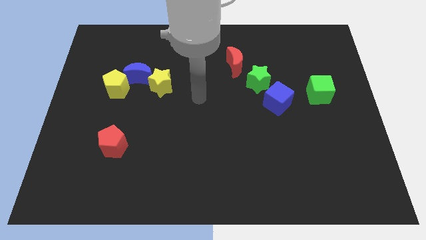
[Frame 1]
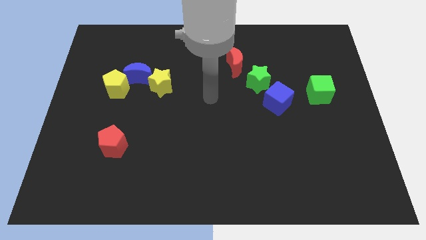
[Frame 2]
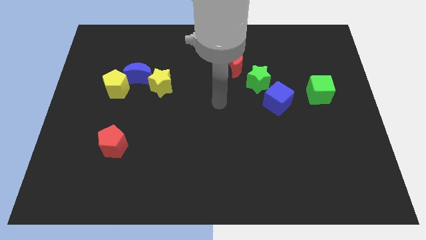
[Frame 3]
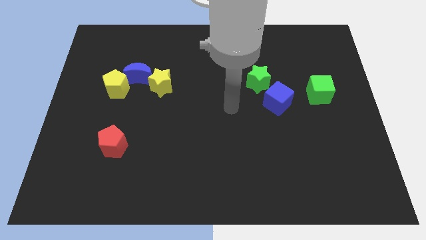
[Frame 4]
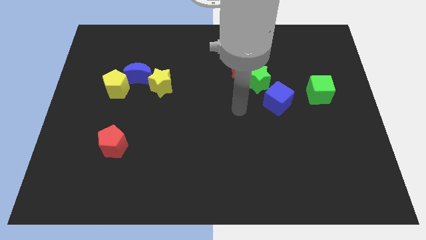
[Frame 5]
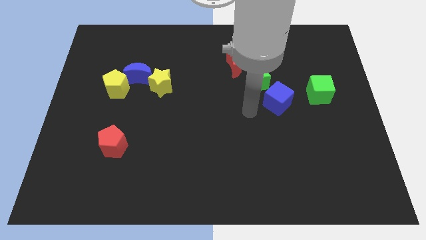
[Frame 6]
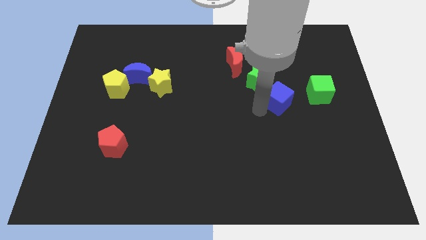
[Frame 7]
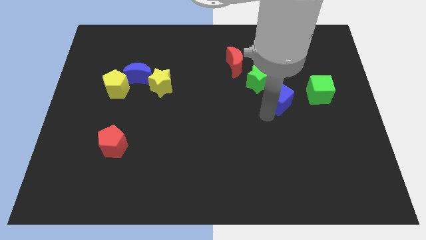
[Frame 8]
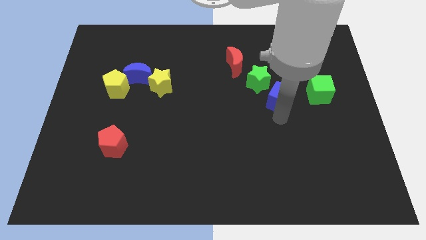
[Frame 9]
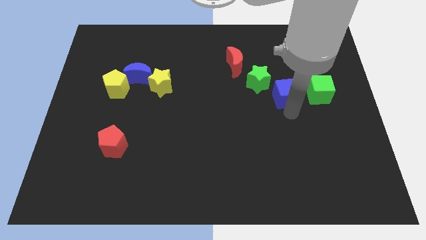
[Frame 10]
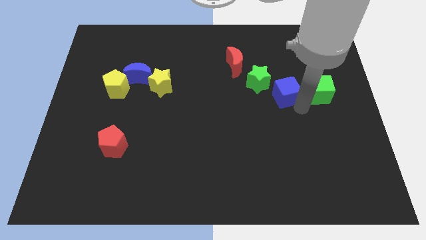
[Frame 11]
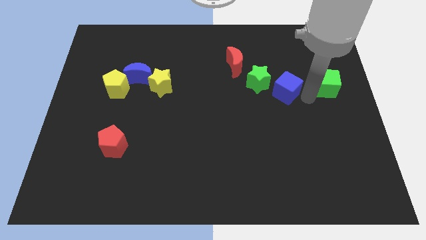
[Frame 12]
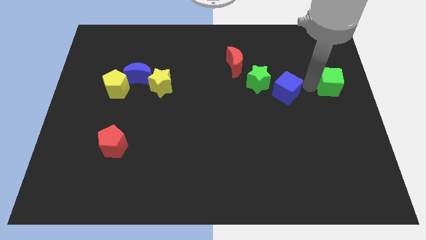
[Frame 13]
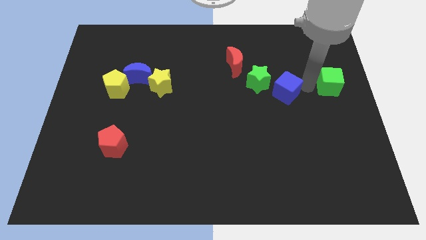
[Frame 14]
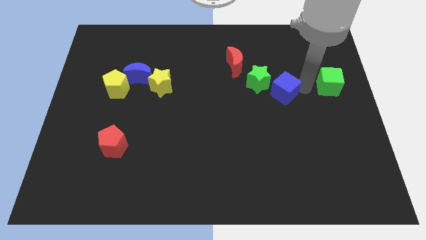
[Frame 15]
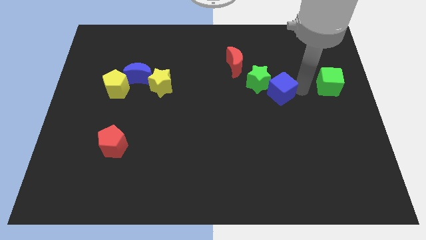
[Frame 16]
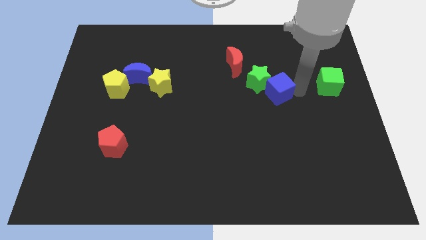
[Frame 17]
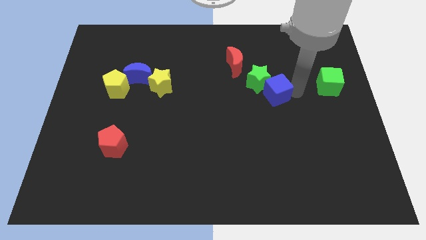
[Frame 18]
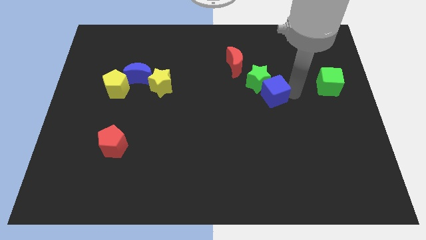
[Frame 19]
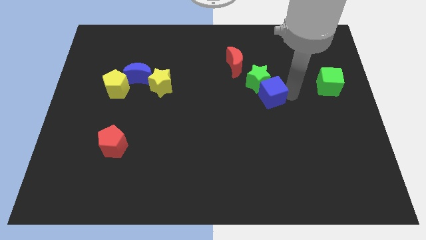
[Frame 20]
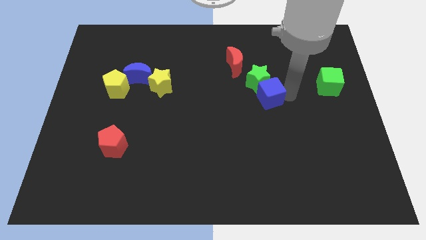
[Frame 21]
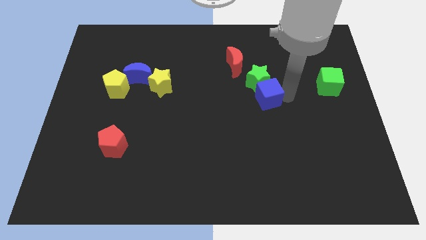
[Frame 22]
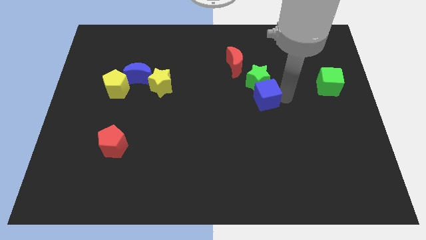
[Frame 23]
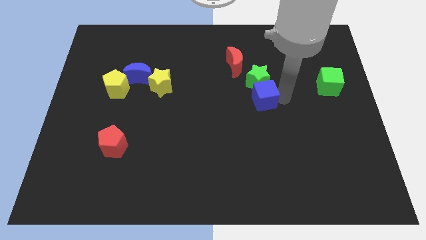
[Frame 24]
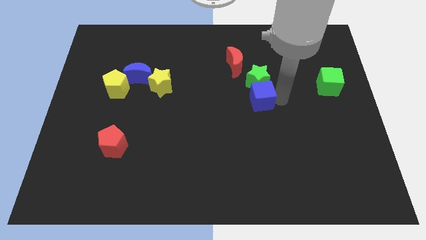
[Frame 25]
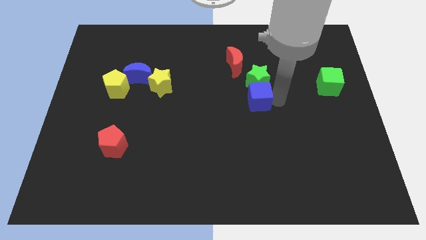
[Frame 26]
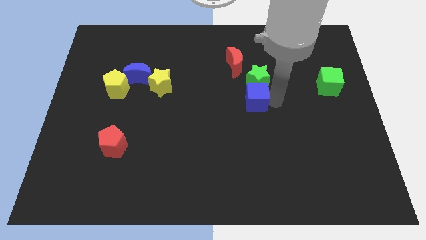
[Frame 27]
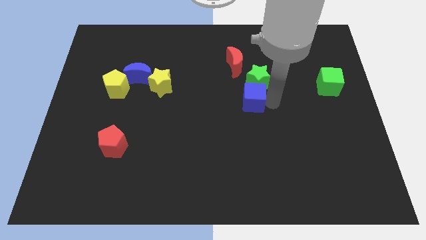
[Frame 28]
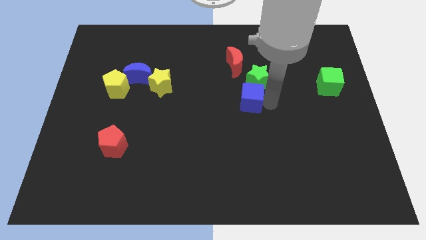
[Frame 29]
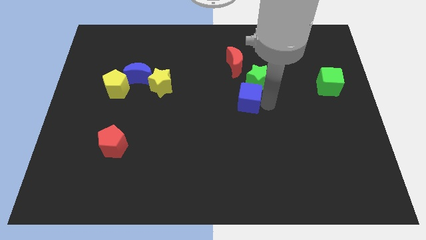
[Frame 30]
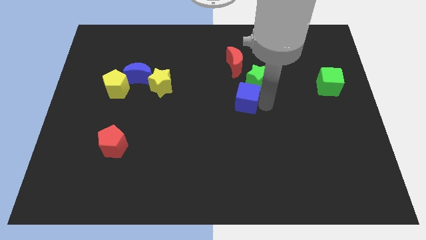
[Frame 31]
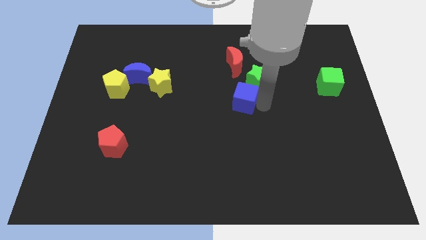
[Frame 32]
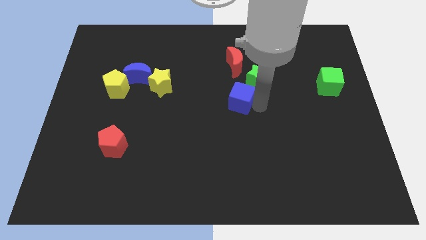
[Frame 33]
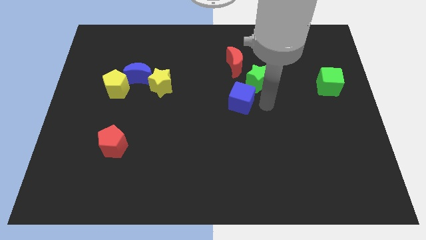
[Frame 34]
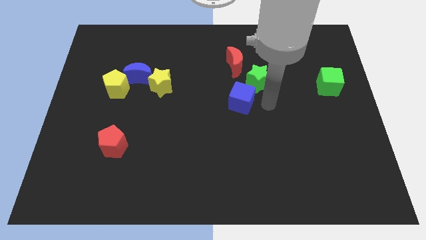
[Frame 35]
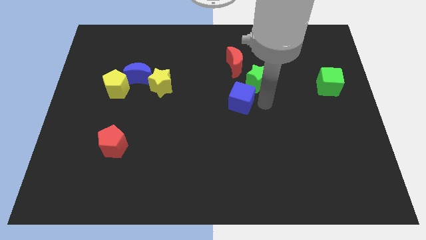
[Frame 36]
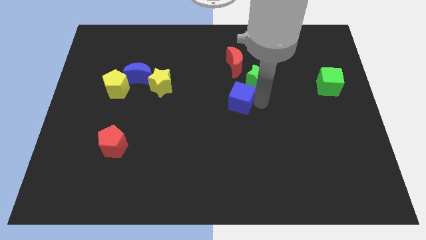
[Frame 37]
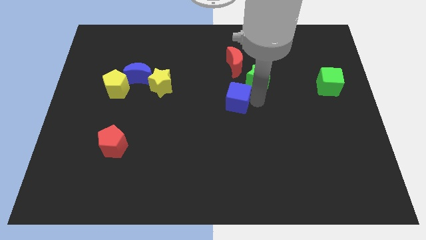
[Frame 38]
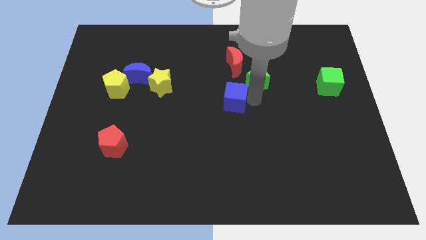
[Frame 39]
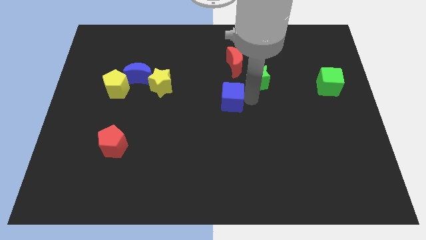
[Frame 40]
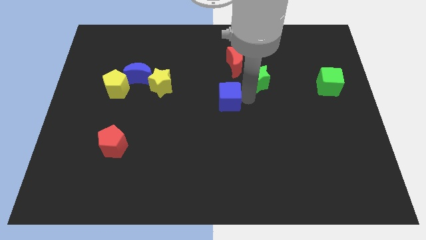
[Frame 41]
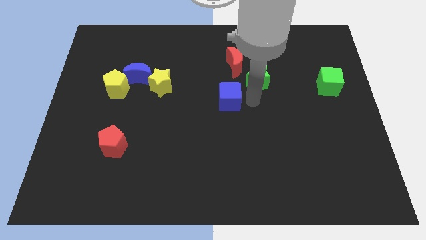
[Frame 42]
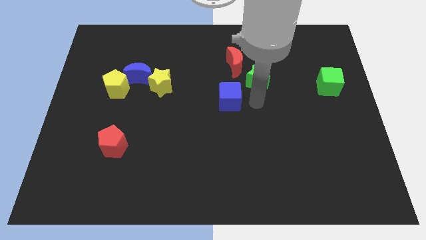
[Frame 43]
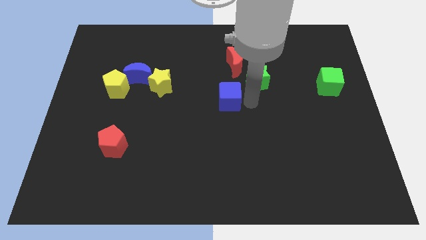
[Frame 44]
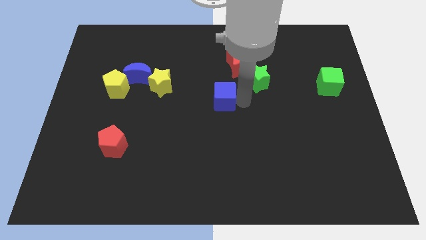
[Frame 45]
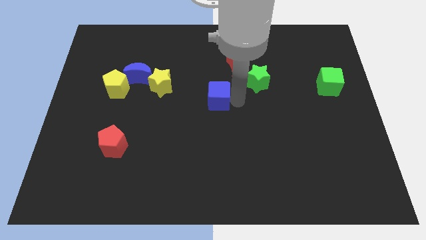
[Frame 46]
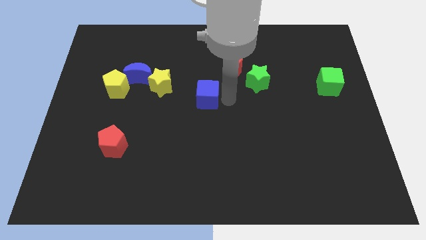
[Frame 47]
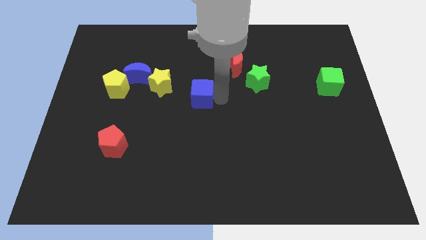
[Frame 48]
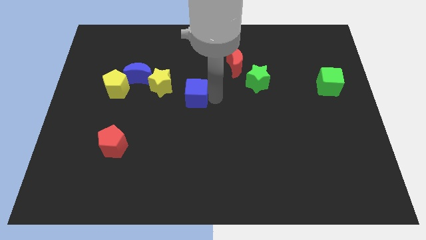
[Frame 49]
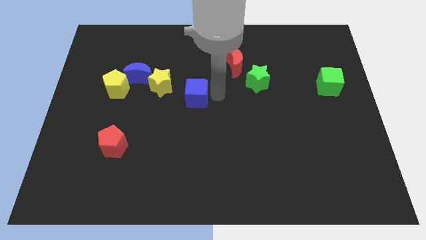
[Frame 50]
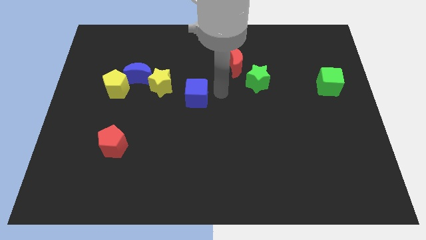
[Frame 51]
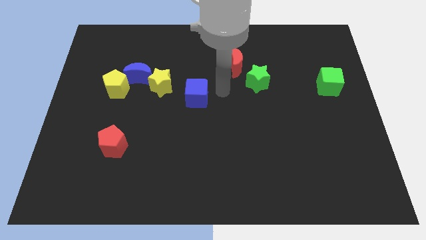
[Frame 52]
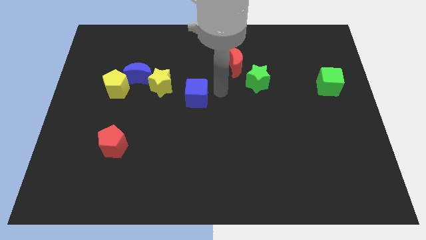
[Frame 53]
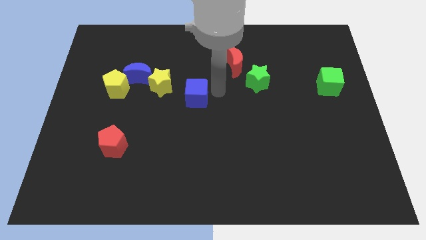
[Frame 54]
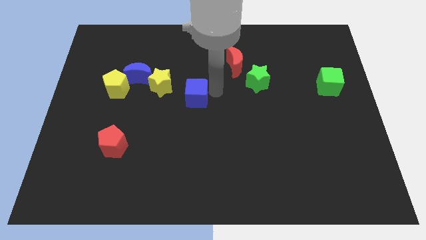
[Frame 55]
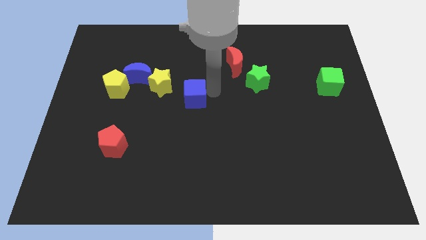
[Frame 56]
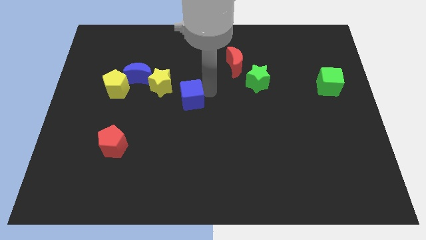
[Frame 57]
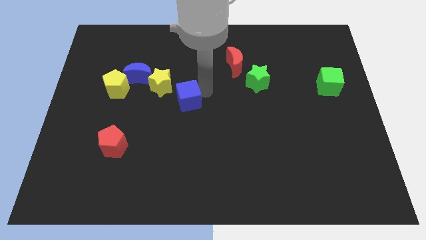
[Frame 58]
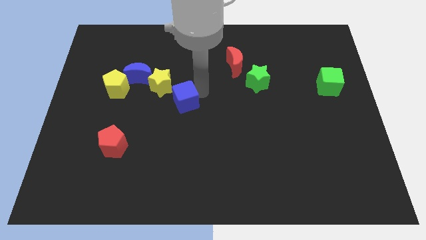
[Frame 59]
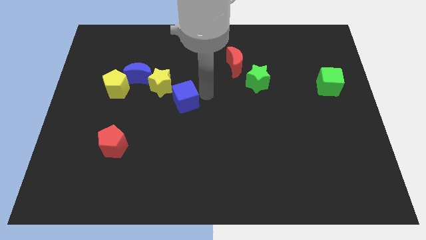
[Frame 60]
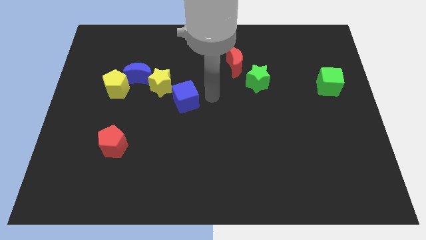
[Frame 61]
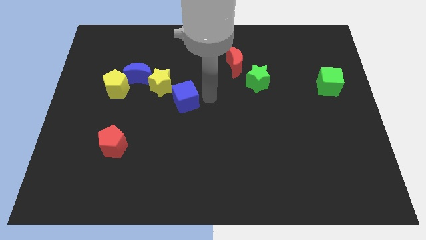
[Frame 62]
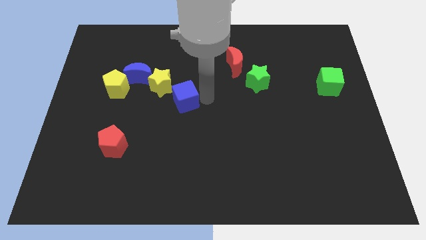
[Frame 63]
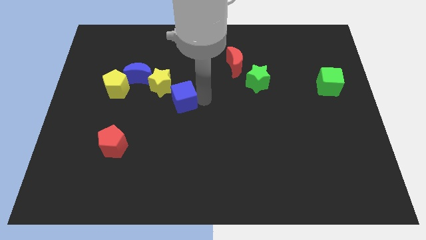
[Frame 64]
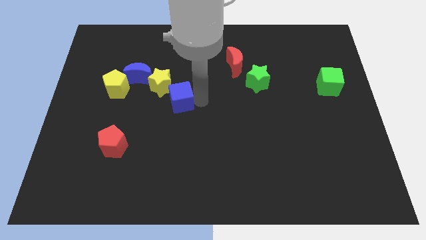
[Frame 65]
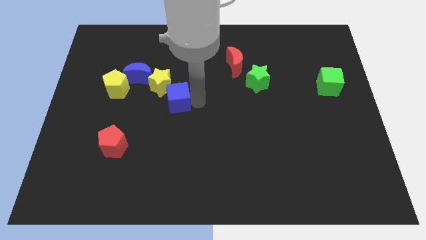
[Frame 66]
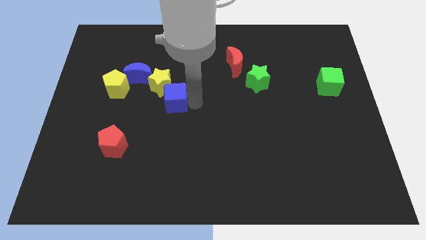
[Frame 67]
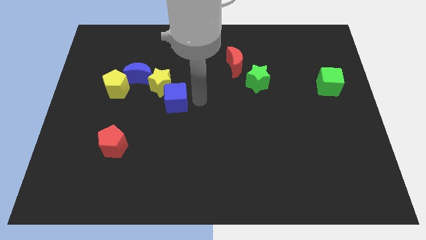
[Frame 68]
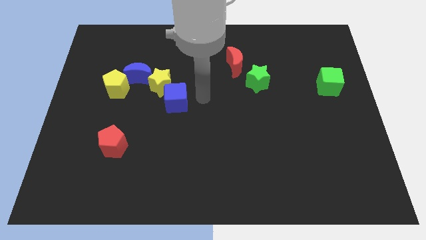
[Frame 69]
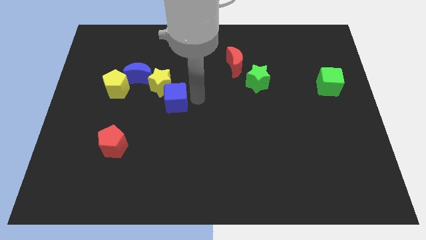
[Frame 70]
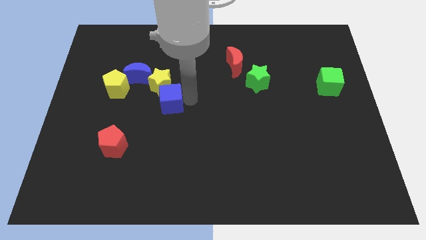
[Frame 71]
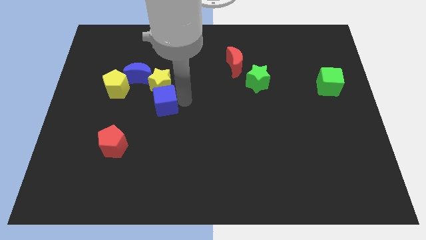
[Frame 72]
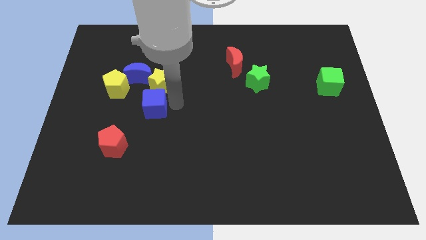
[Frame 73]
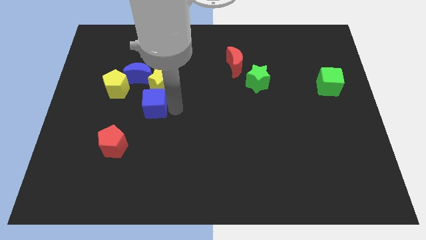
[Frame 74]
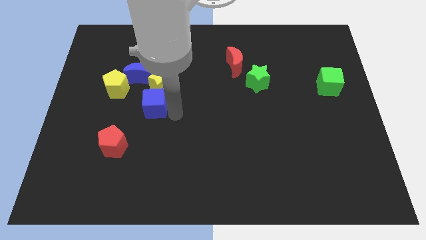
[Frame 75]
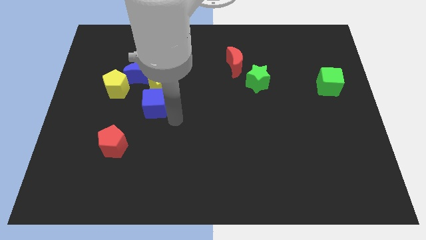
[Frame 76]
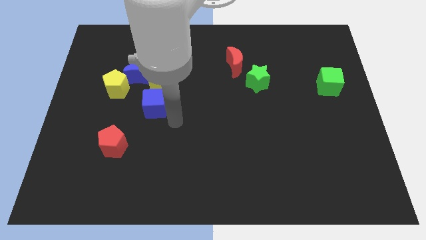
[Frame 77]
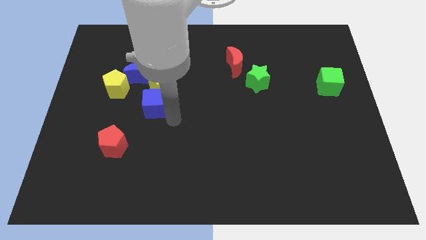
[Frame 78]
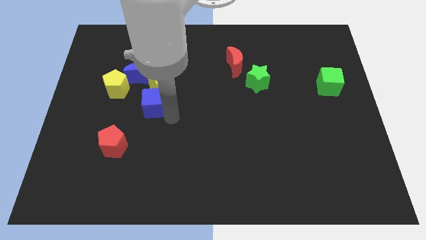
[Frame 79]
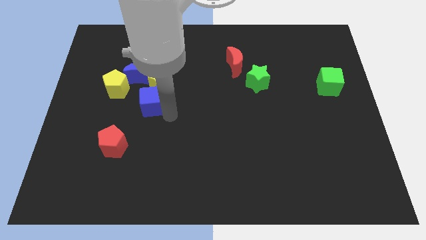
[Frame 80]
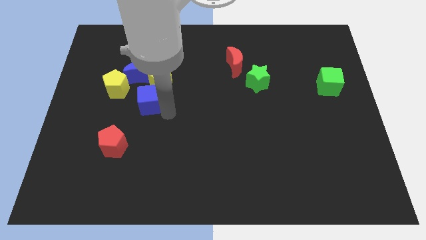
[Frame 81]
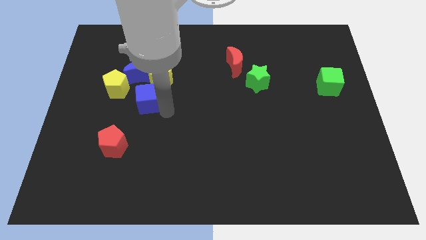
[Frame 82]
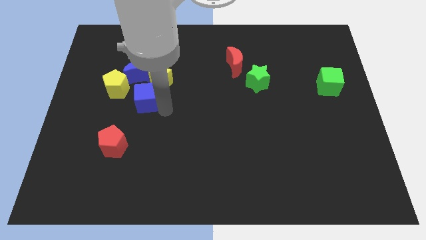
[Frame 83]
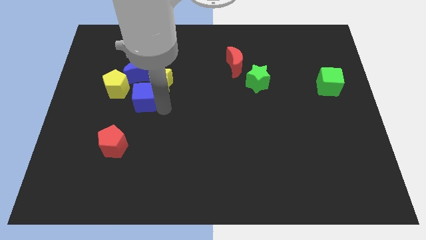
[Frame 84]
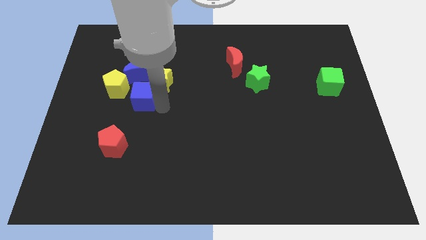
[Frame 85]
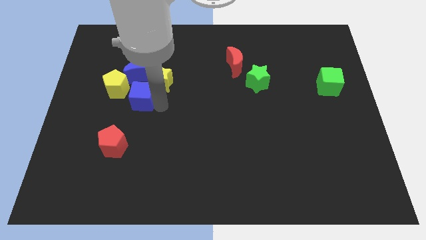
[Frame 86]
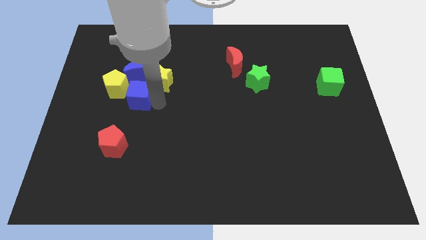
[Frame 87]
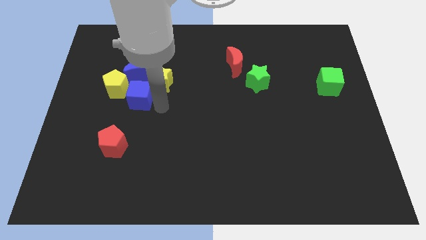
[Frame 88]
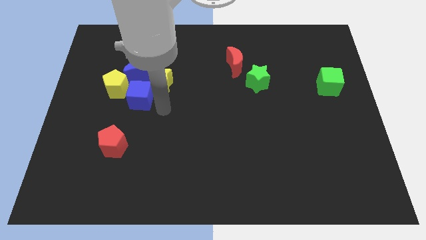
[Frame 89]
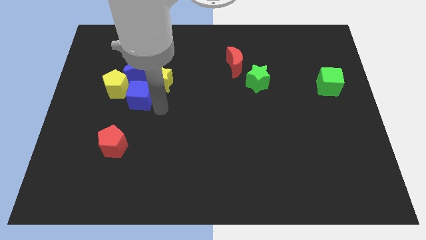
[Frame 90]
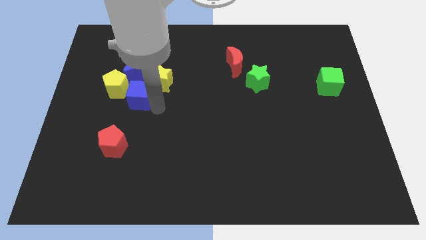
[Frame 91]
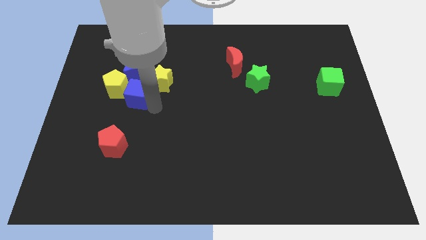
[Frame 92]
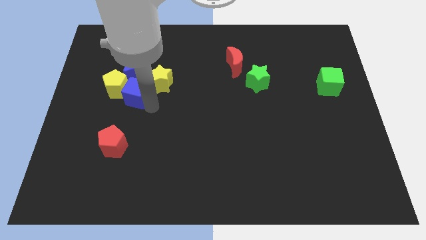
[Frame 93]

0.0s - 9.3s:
slide the blue cube close to the yellow pentagon
